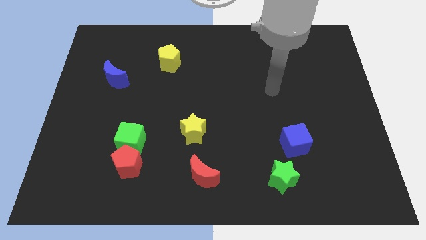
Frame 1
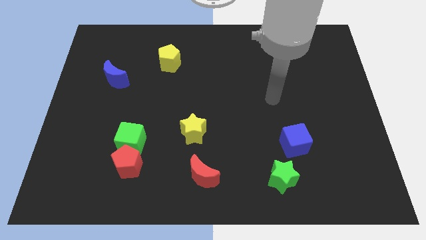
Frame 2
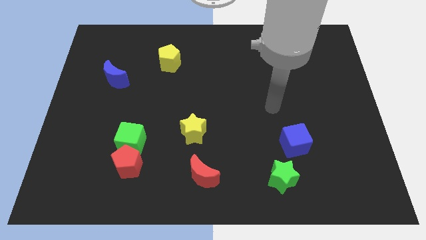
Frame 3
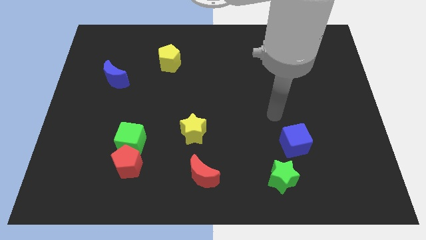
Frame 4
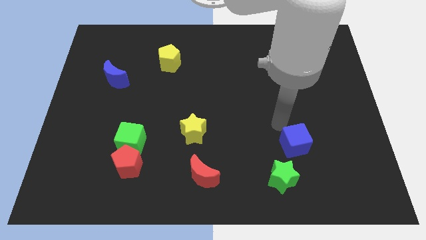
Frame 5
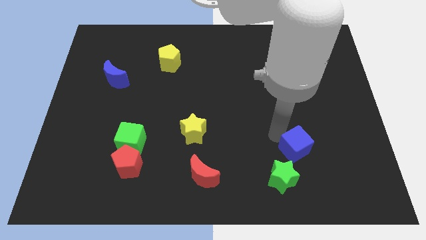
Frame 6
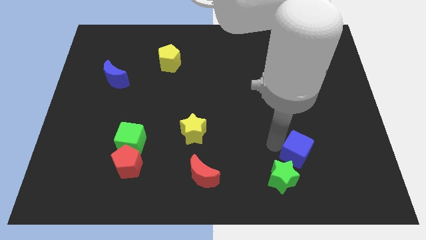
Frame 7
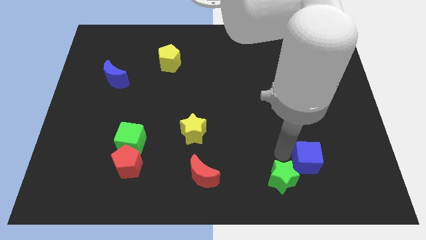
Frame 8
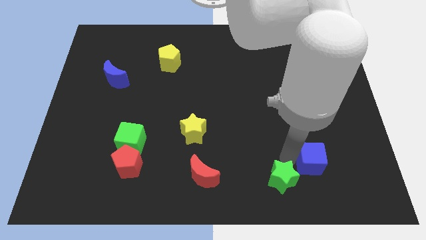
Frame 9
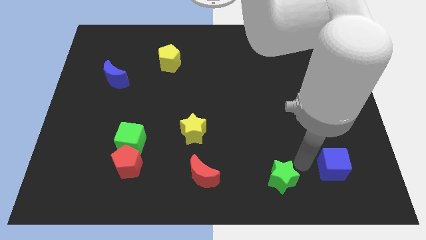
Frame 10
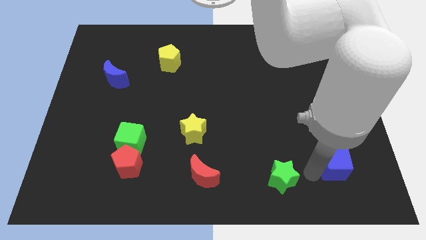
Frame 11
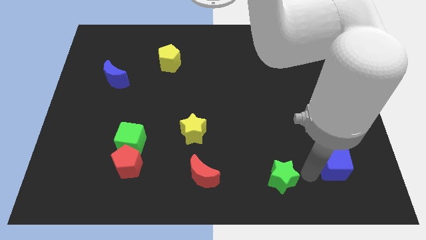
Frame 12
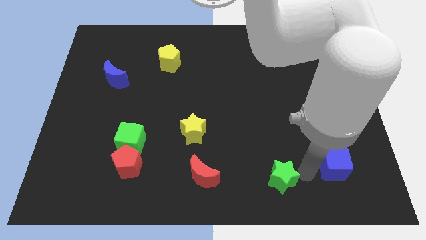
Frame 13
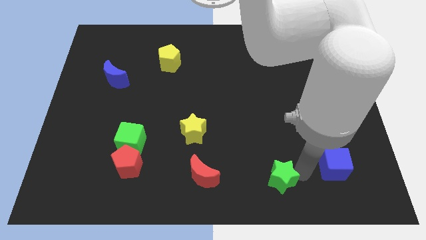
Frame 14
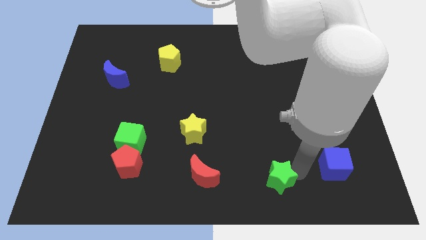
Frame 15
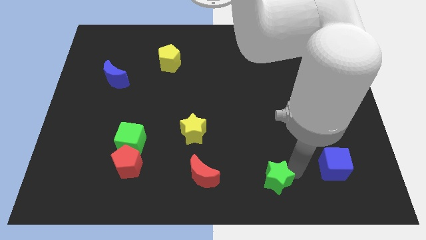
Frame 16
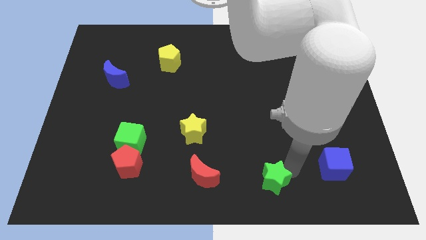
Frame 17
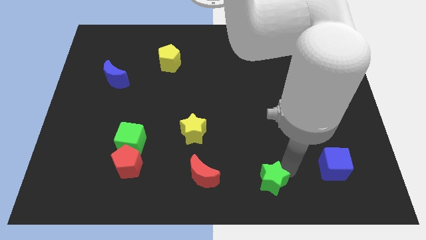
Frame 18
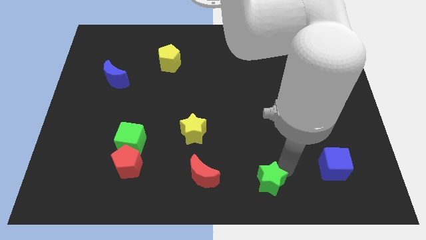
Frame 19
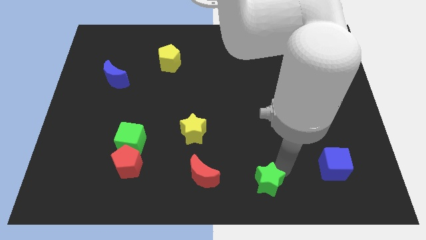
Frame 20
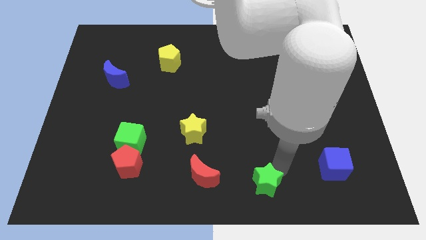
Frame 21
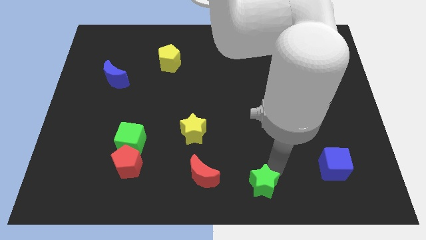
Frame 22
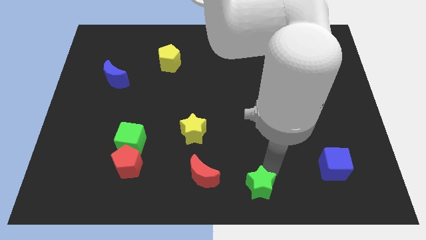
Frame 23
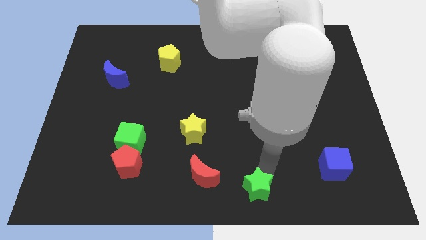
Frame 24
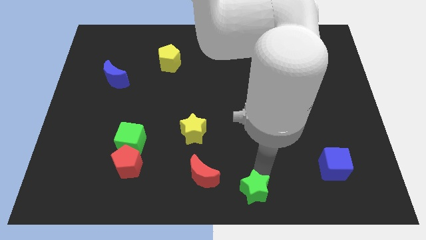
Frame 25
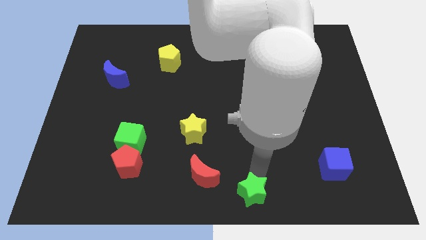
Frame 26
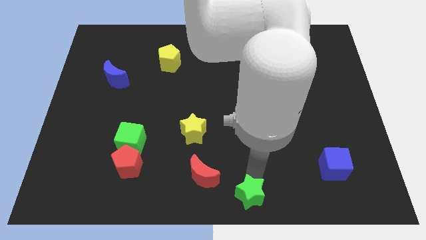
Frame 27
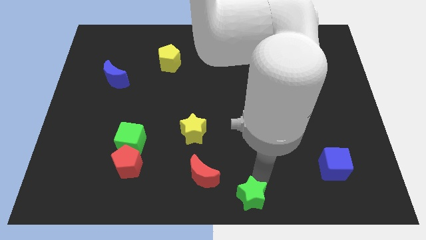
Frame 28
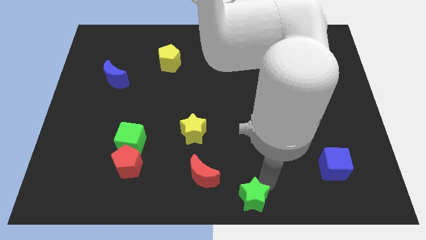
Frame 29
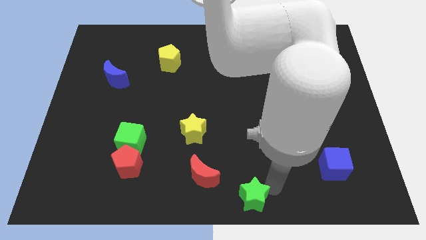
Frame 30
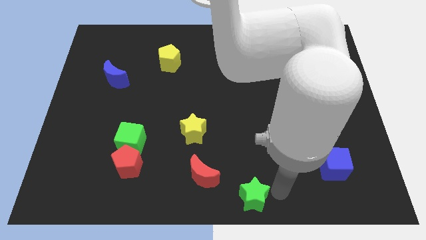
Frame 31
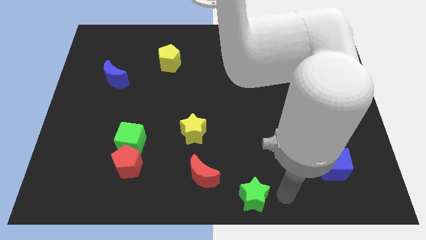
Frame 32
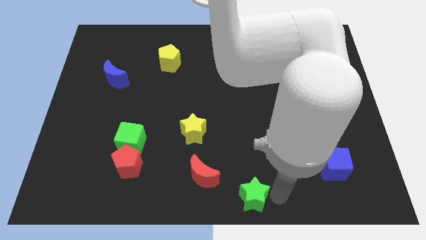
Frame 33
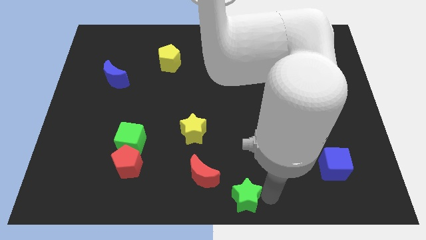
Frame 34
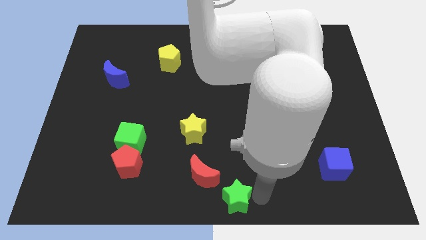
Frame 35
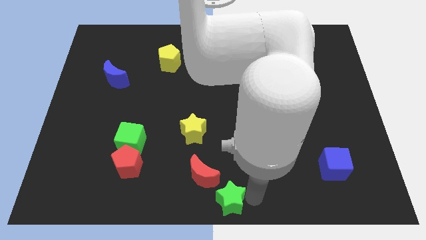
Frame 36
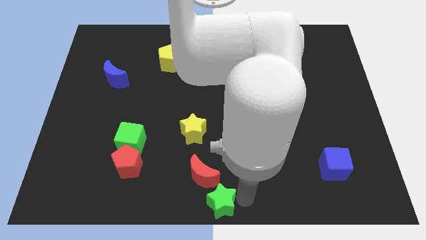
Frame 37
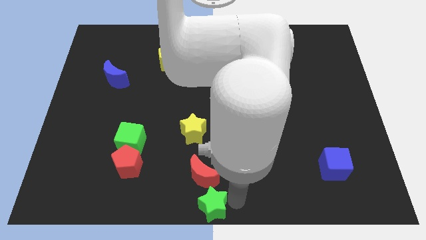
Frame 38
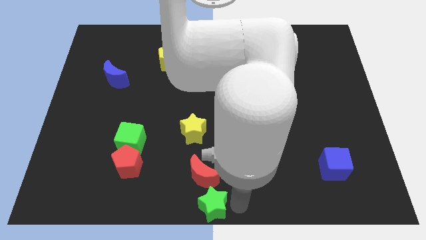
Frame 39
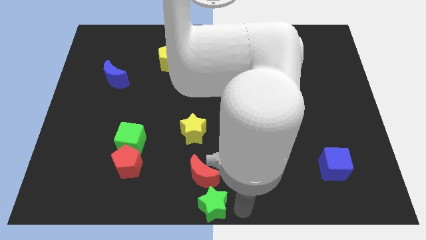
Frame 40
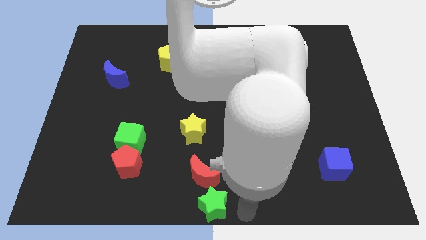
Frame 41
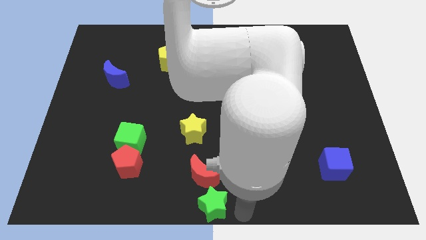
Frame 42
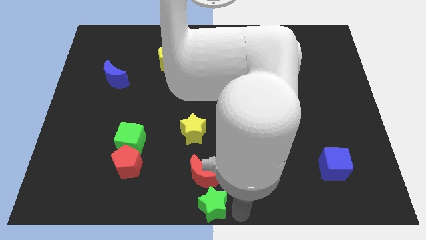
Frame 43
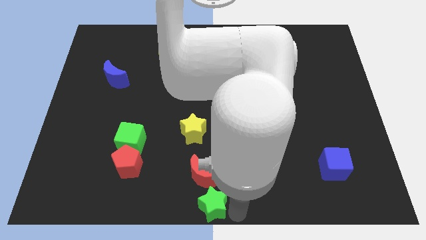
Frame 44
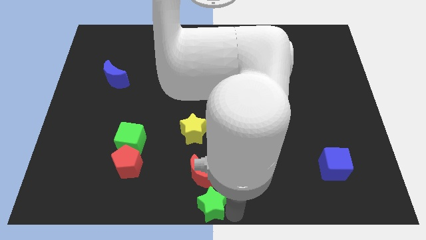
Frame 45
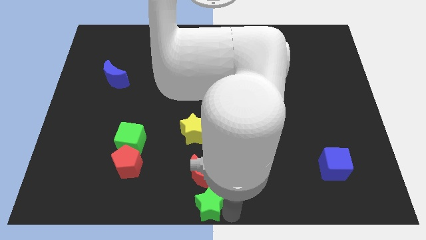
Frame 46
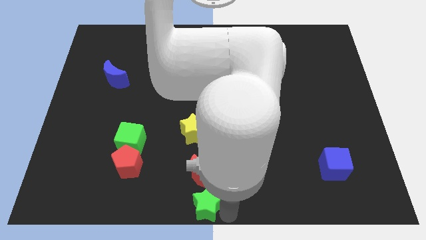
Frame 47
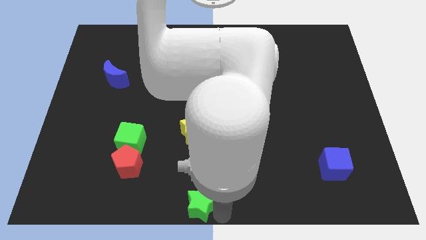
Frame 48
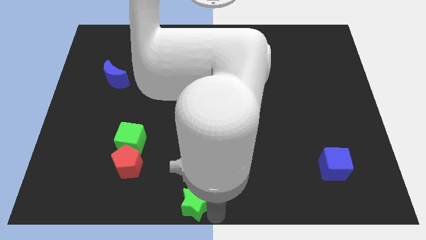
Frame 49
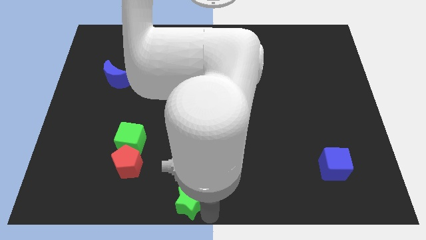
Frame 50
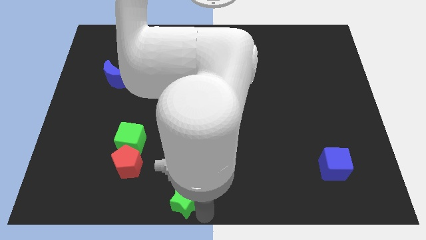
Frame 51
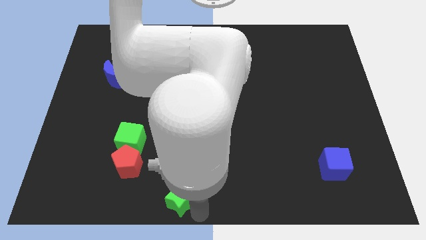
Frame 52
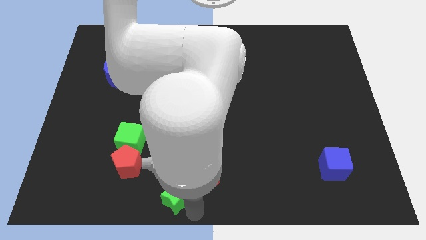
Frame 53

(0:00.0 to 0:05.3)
slide the green star to the left side of the red moon

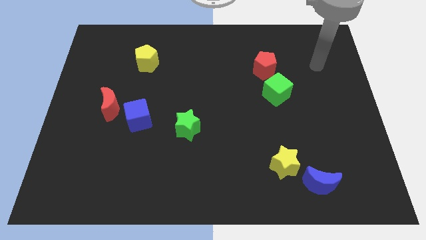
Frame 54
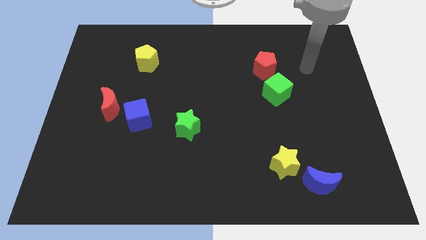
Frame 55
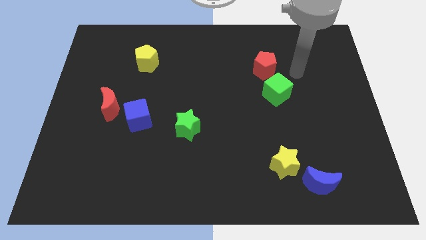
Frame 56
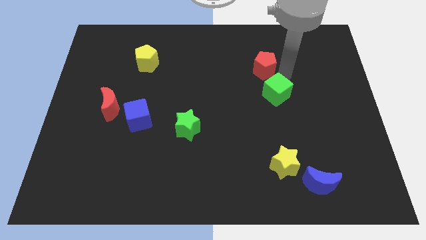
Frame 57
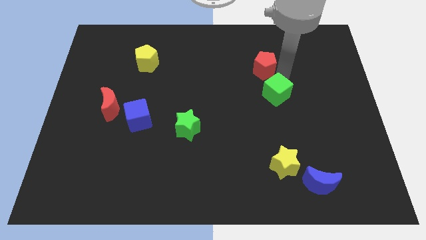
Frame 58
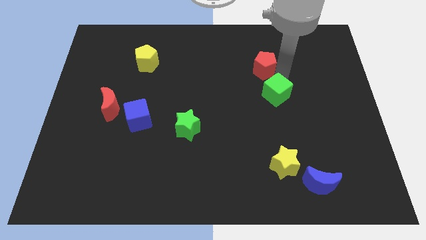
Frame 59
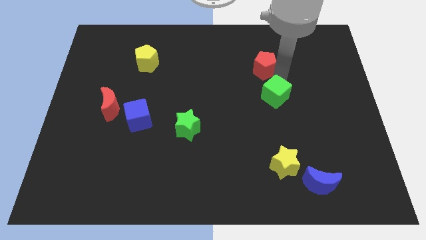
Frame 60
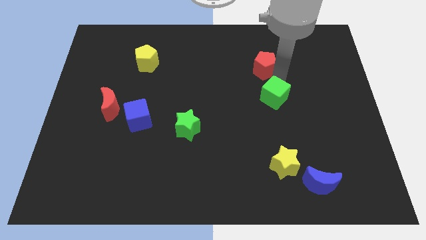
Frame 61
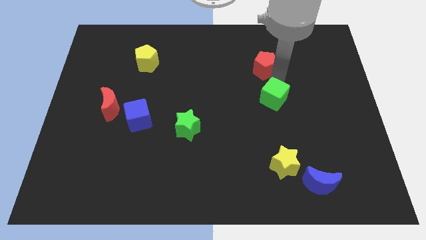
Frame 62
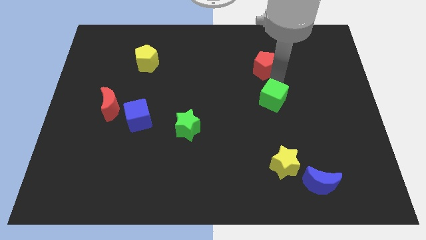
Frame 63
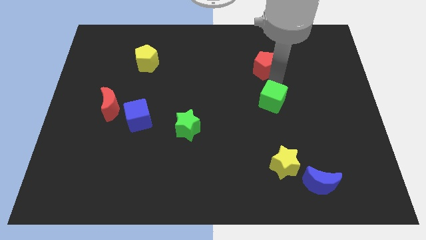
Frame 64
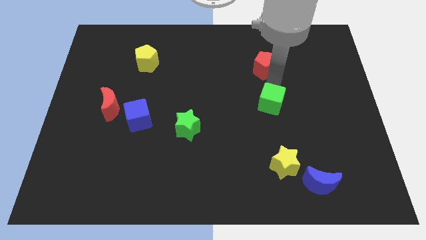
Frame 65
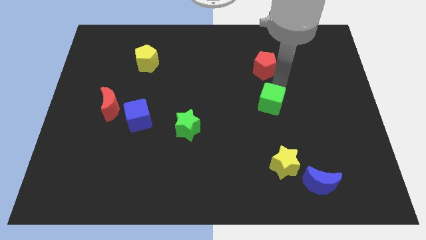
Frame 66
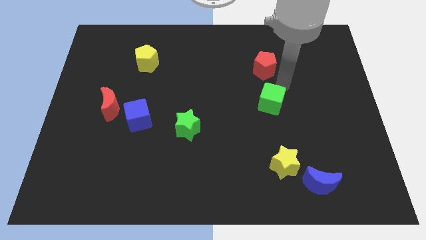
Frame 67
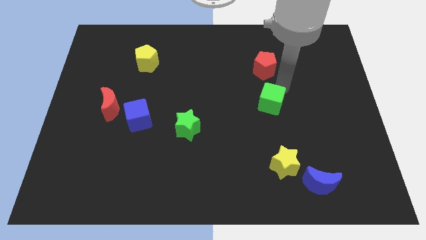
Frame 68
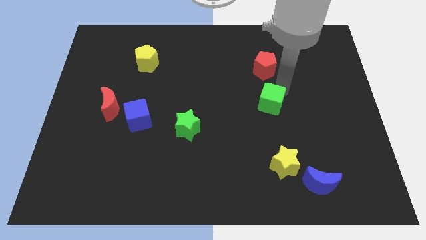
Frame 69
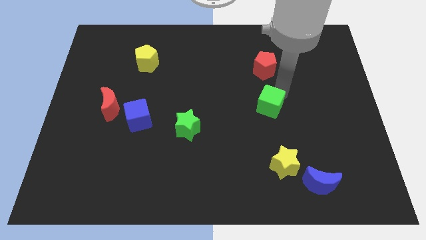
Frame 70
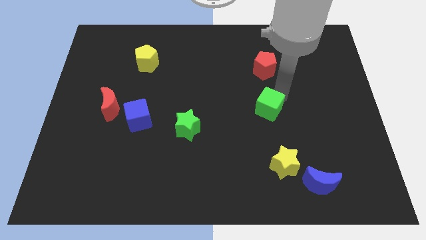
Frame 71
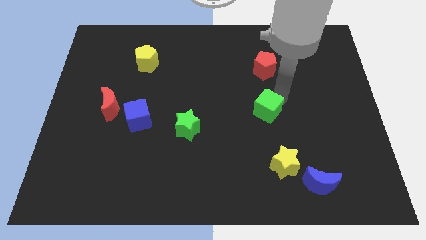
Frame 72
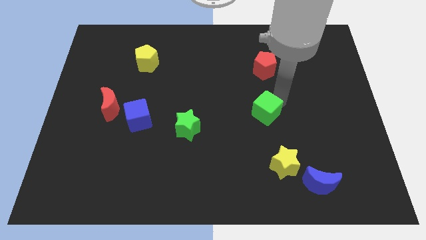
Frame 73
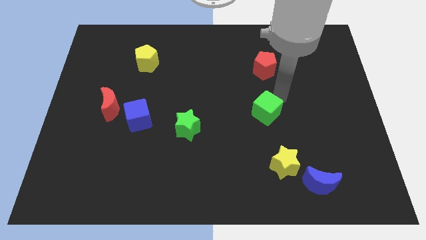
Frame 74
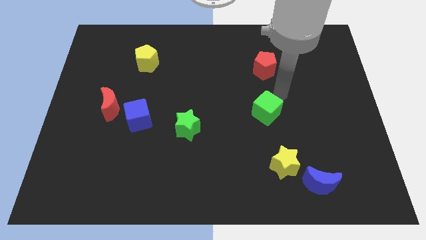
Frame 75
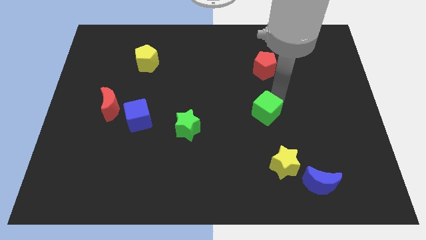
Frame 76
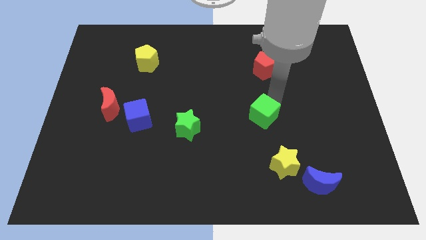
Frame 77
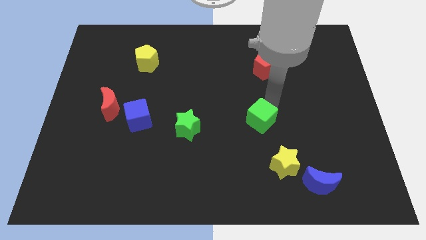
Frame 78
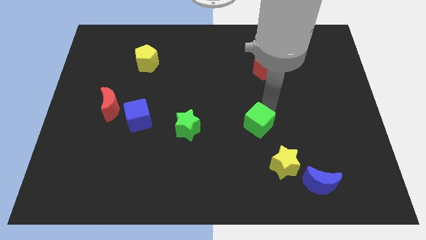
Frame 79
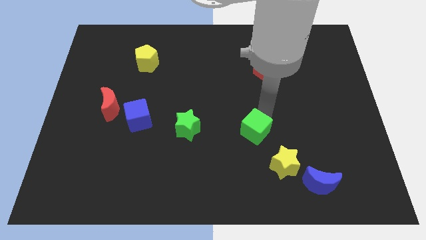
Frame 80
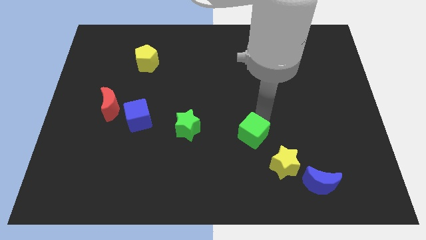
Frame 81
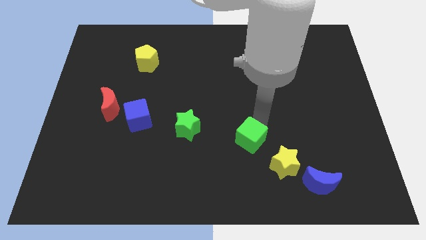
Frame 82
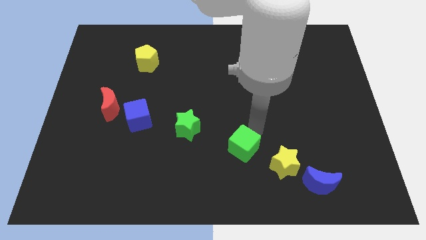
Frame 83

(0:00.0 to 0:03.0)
put the green cube just left of the yellow star
